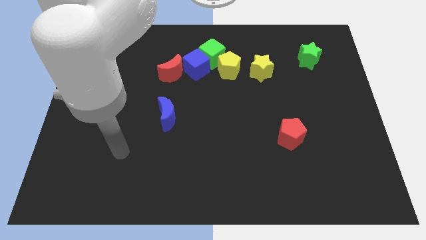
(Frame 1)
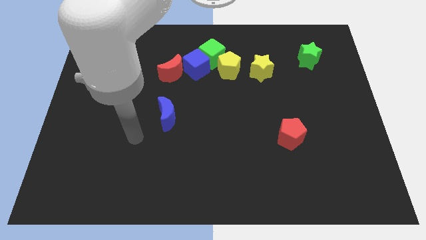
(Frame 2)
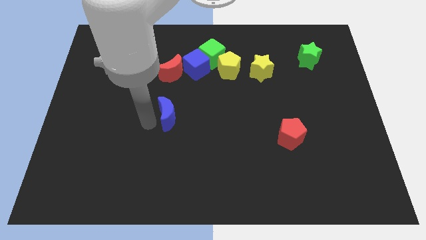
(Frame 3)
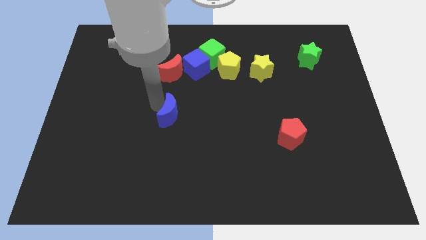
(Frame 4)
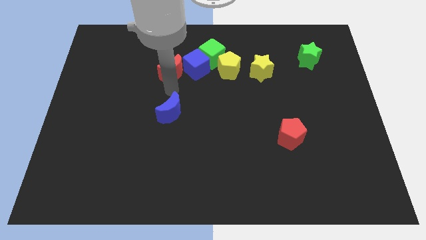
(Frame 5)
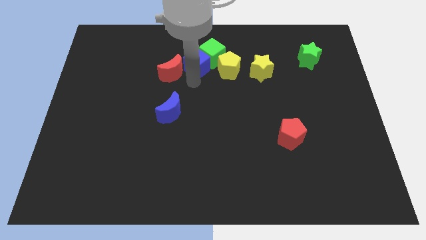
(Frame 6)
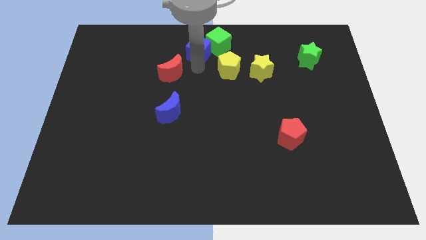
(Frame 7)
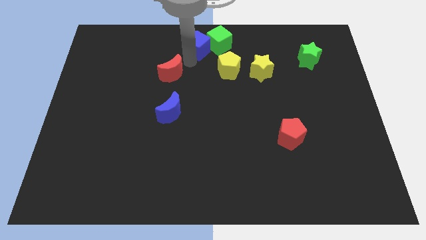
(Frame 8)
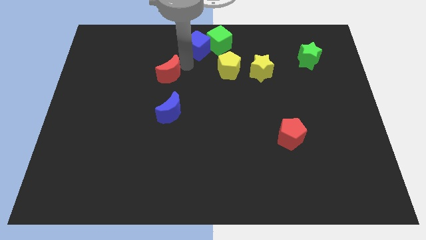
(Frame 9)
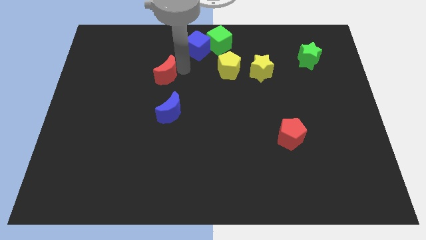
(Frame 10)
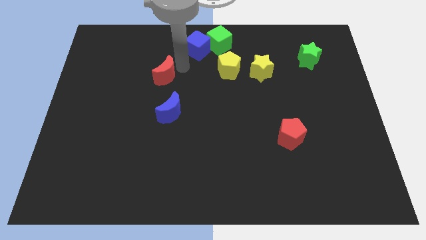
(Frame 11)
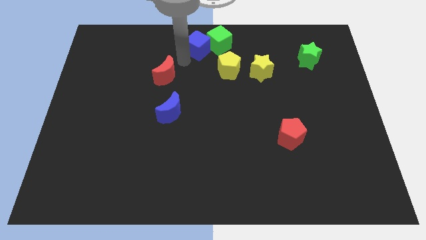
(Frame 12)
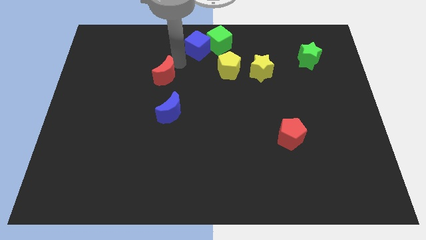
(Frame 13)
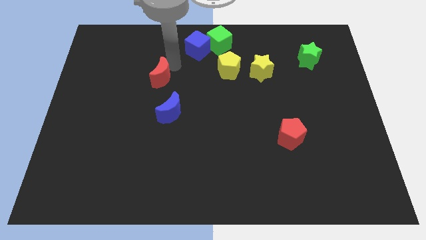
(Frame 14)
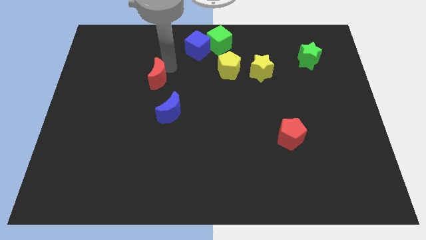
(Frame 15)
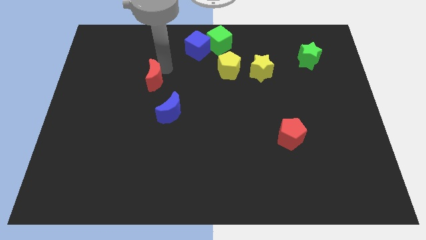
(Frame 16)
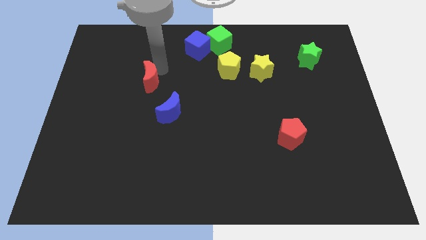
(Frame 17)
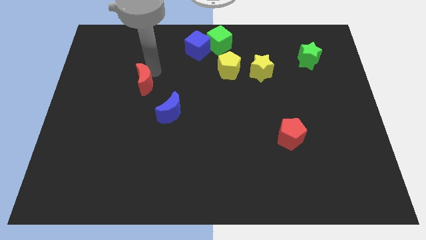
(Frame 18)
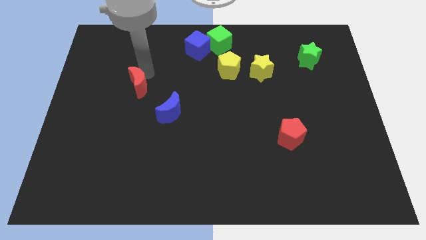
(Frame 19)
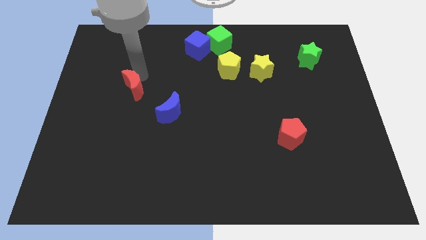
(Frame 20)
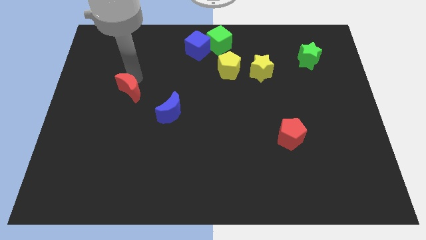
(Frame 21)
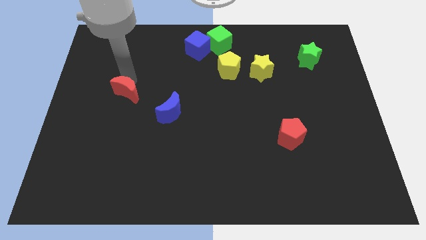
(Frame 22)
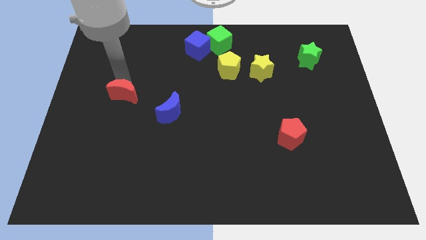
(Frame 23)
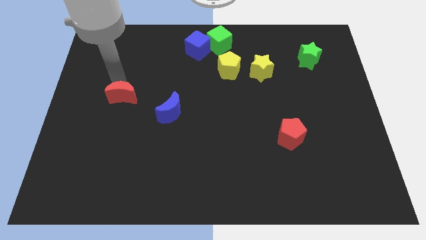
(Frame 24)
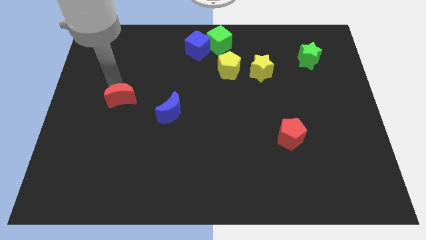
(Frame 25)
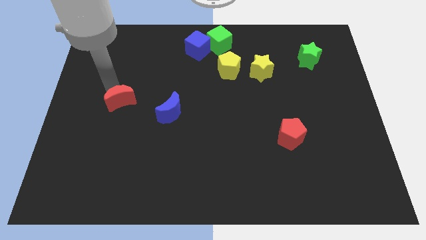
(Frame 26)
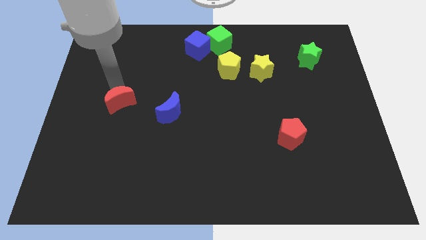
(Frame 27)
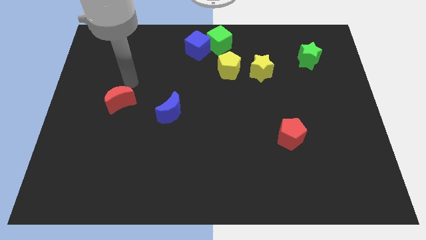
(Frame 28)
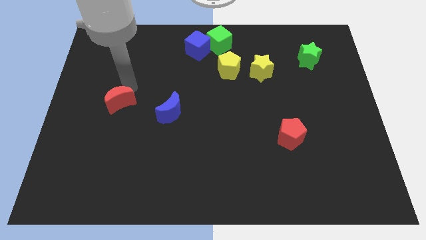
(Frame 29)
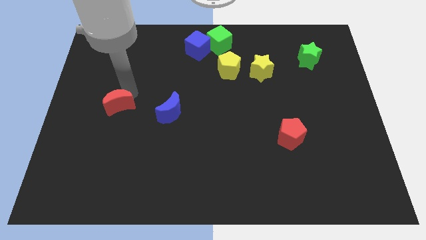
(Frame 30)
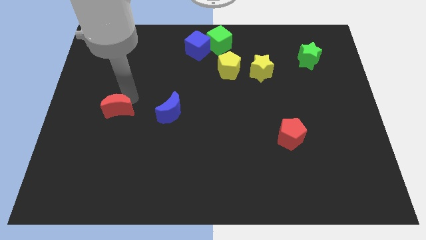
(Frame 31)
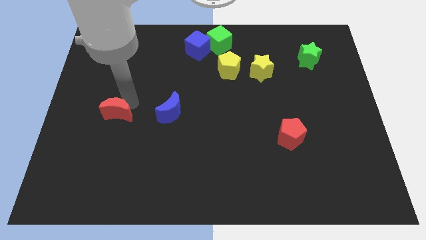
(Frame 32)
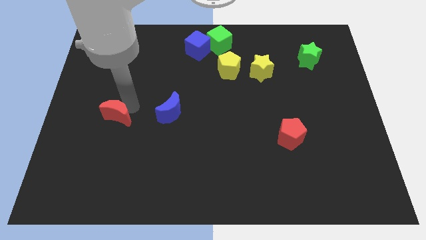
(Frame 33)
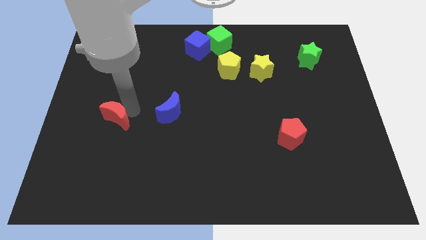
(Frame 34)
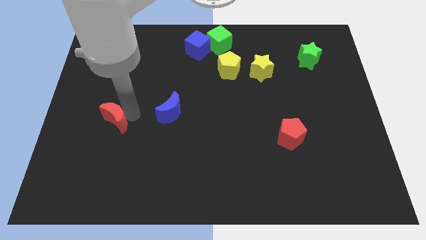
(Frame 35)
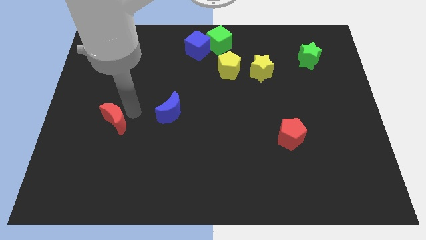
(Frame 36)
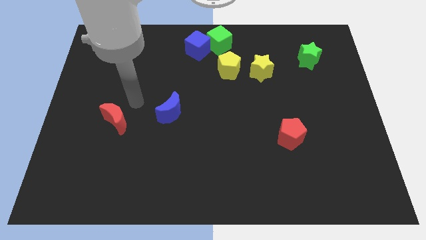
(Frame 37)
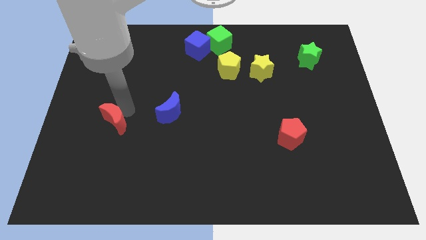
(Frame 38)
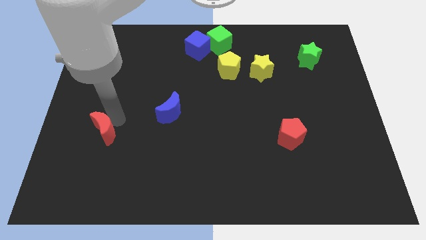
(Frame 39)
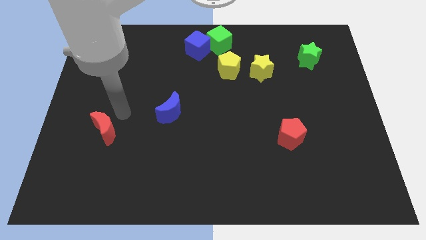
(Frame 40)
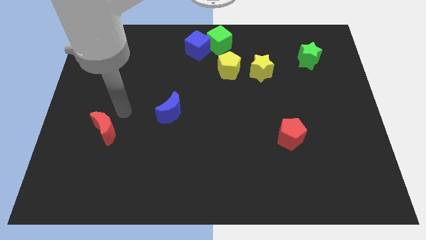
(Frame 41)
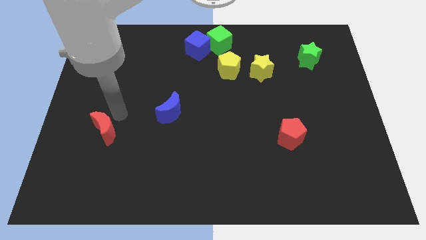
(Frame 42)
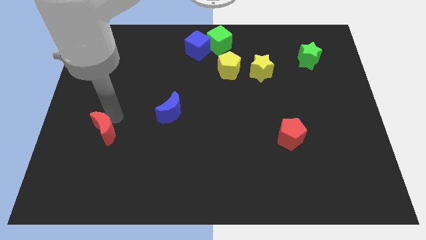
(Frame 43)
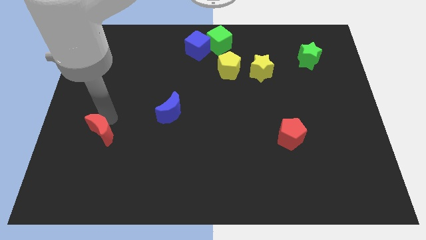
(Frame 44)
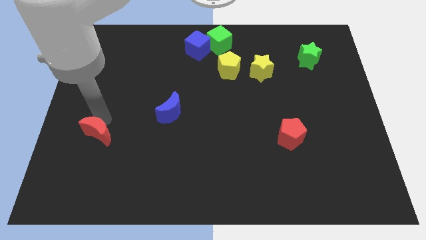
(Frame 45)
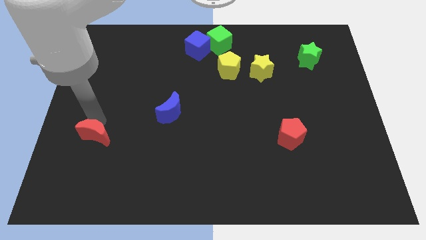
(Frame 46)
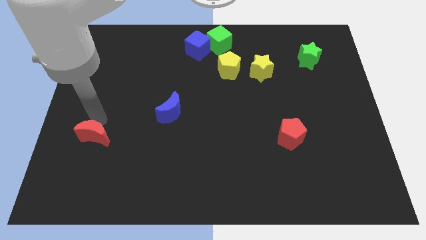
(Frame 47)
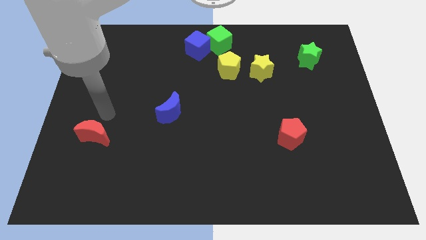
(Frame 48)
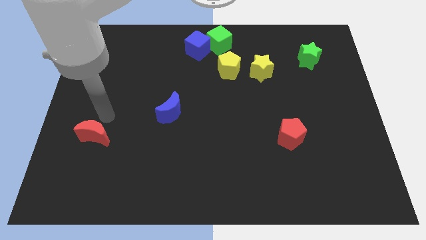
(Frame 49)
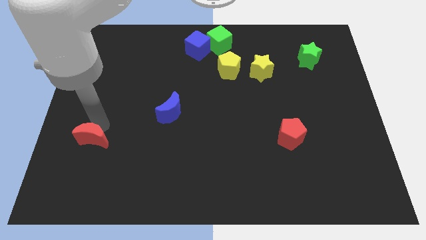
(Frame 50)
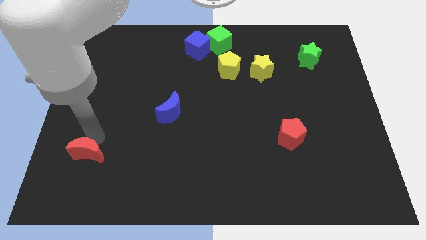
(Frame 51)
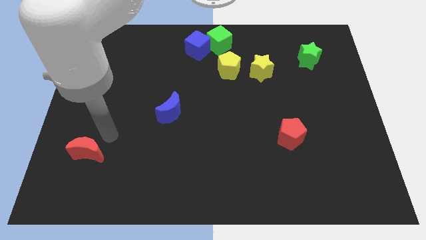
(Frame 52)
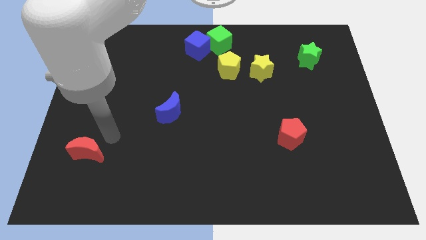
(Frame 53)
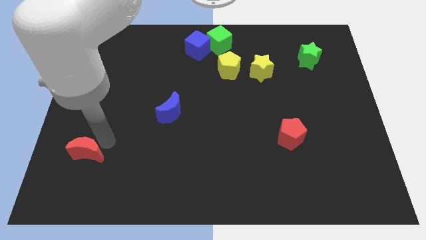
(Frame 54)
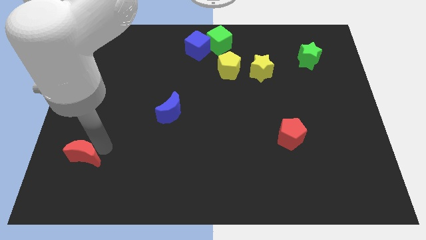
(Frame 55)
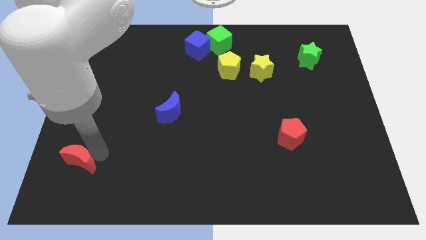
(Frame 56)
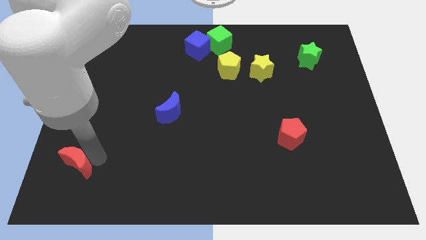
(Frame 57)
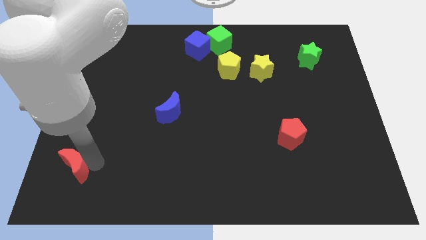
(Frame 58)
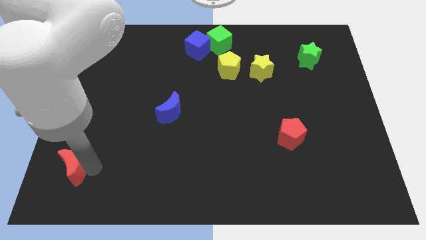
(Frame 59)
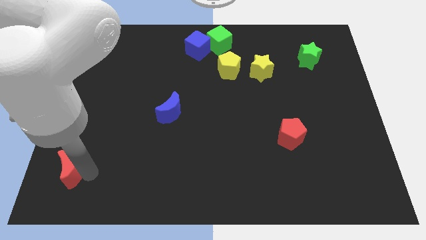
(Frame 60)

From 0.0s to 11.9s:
move the red moon to the bottom left of the board
